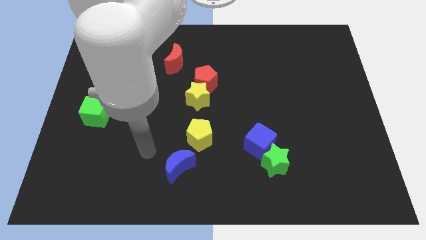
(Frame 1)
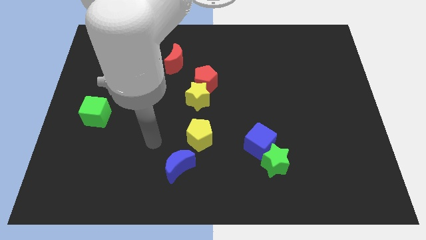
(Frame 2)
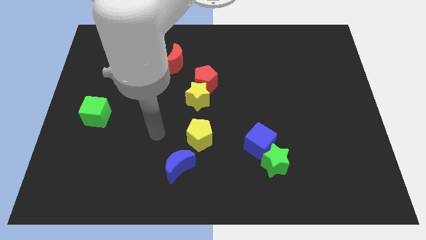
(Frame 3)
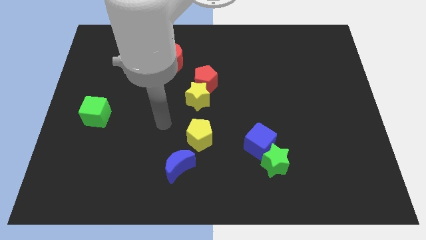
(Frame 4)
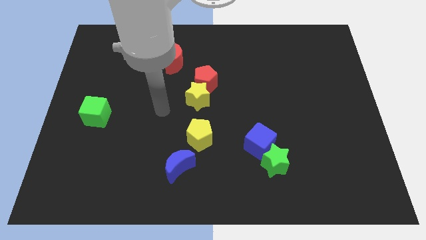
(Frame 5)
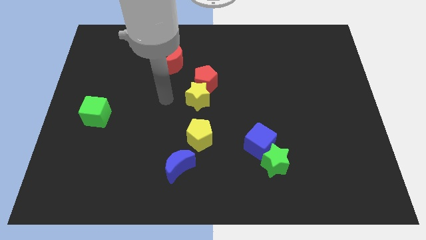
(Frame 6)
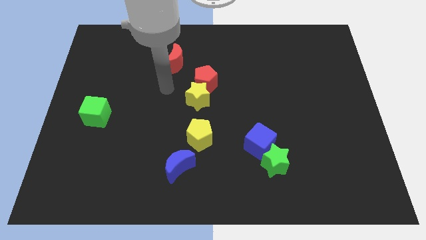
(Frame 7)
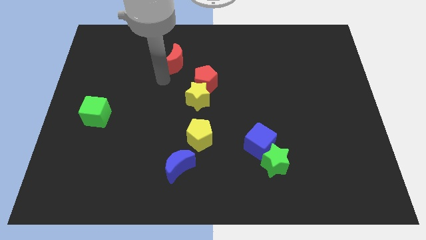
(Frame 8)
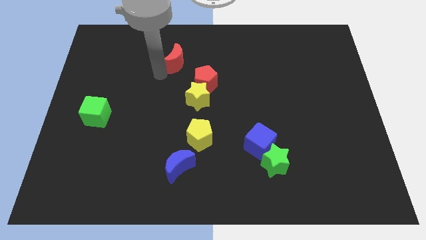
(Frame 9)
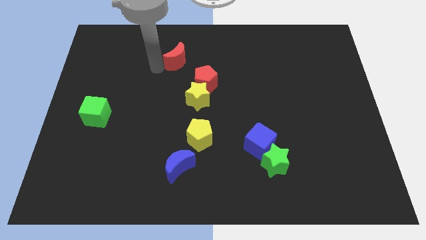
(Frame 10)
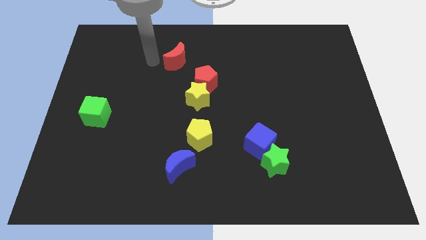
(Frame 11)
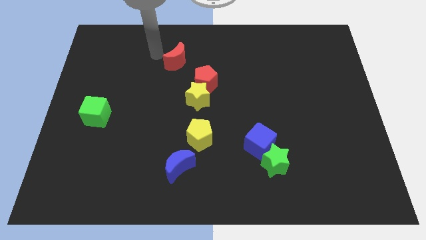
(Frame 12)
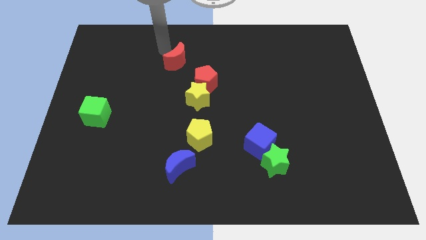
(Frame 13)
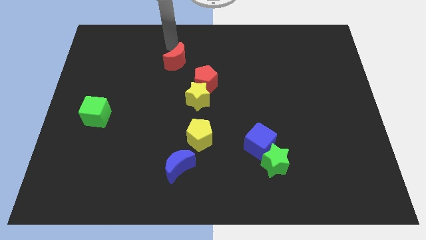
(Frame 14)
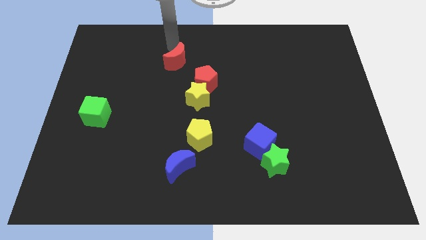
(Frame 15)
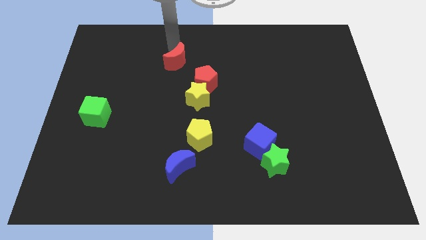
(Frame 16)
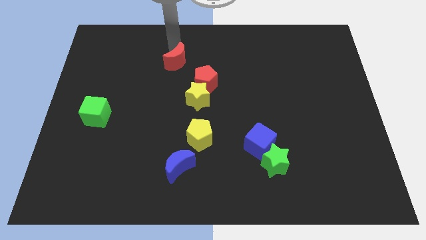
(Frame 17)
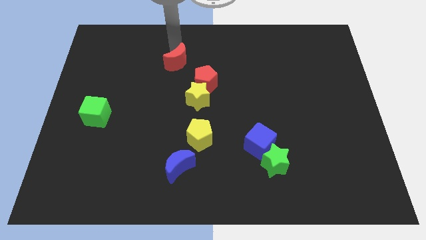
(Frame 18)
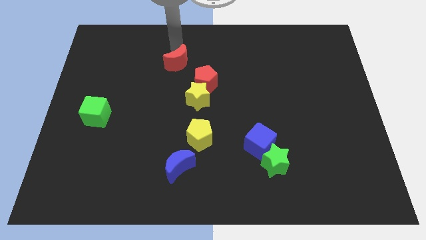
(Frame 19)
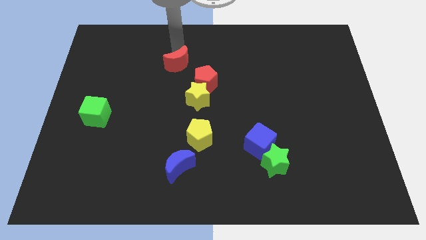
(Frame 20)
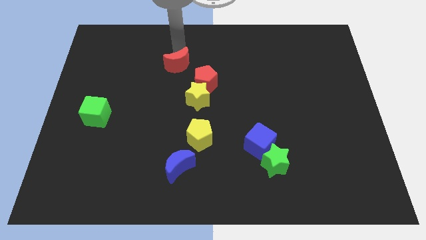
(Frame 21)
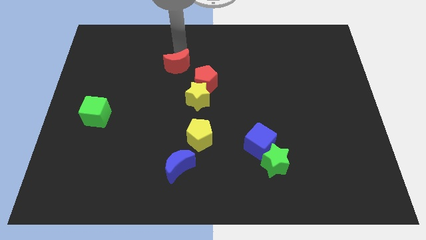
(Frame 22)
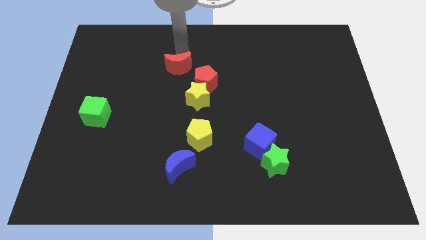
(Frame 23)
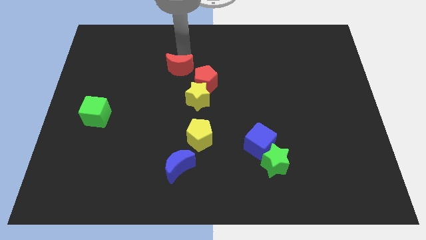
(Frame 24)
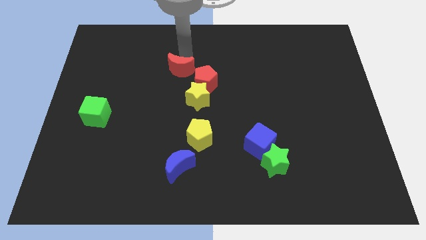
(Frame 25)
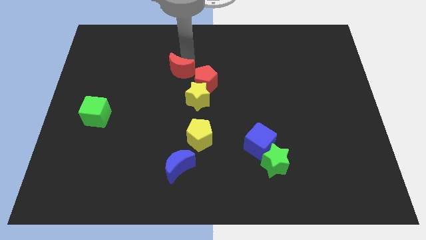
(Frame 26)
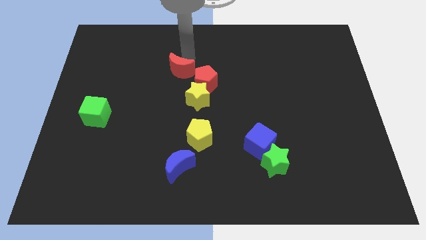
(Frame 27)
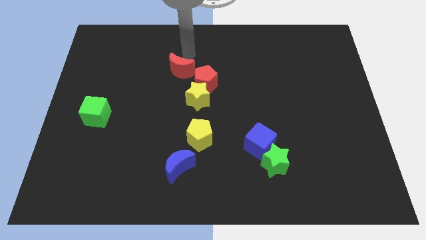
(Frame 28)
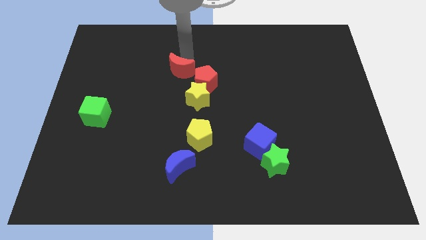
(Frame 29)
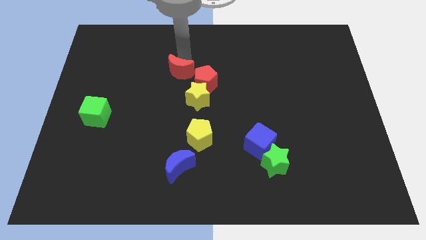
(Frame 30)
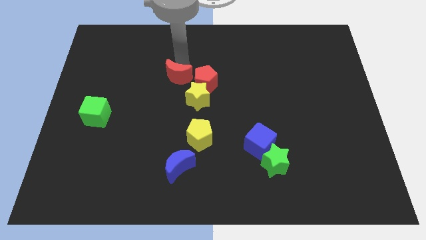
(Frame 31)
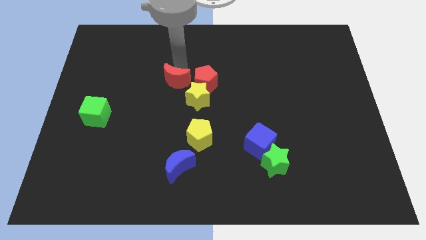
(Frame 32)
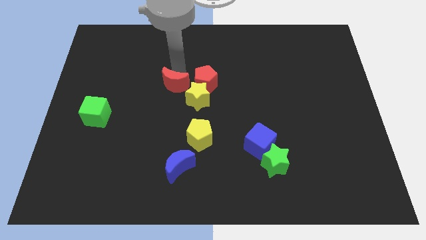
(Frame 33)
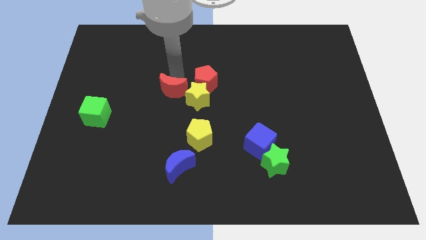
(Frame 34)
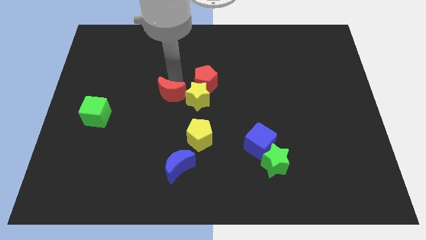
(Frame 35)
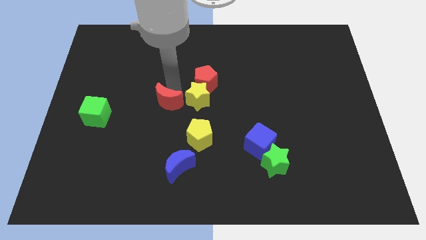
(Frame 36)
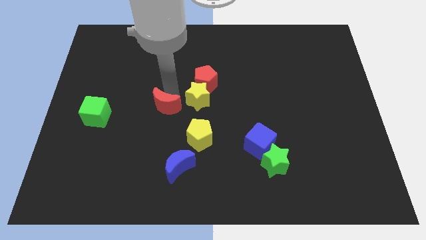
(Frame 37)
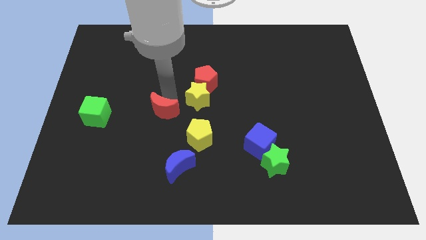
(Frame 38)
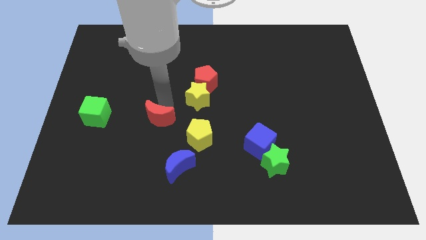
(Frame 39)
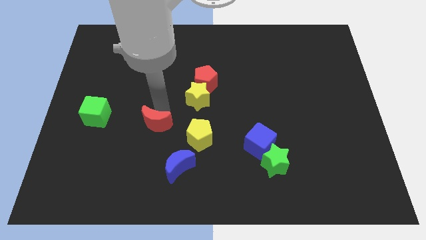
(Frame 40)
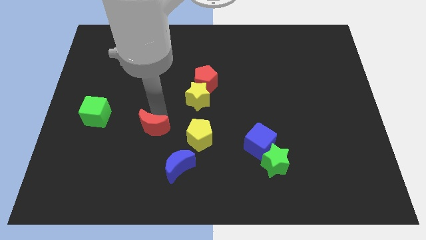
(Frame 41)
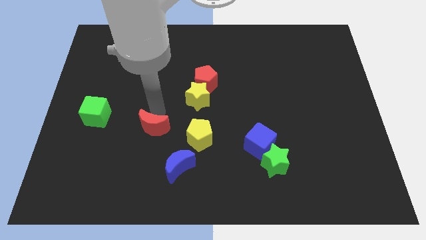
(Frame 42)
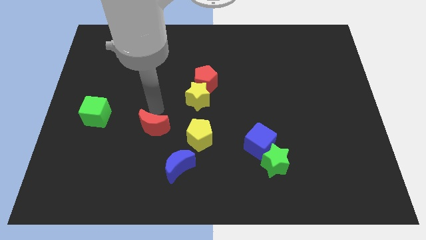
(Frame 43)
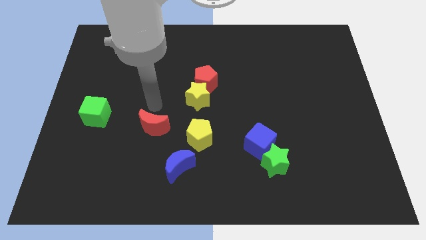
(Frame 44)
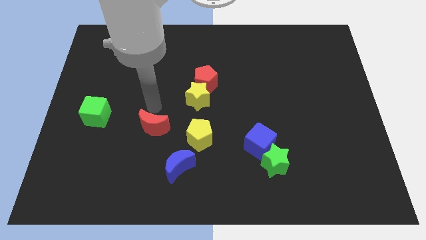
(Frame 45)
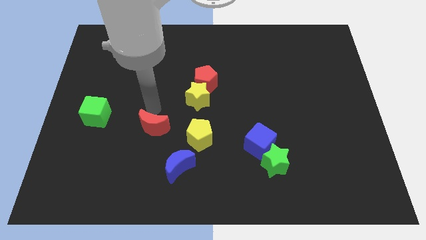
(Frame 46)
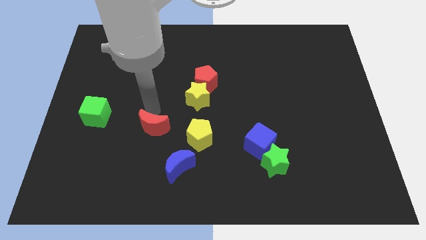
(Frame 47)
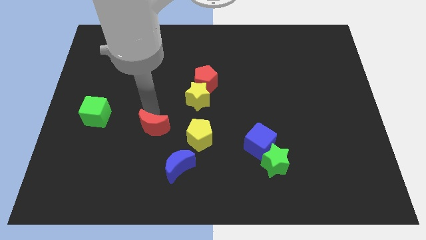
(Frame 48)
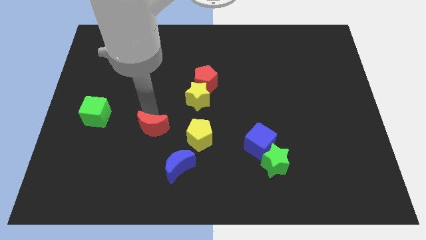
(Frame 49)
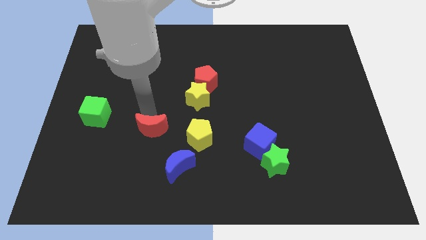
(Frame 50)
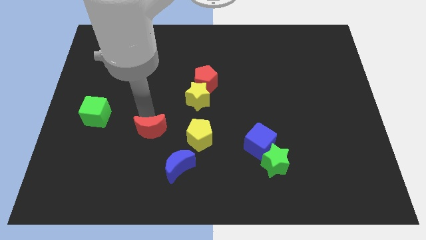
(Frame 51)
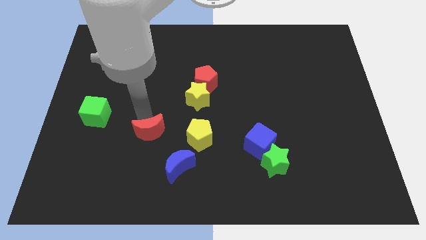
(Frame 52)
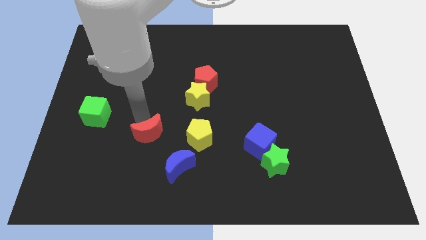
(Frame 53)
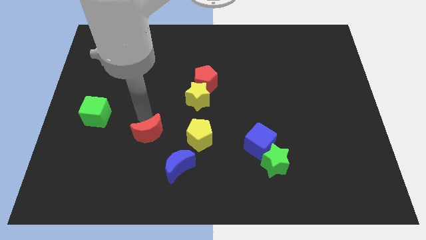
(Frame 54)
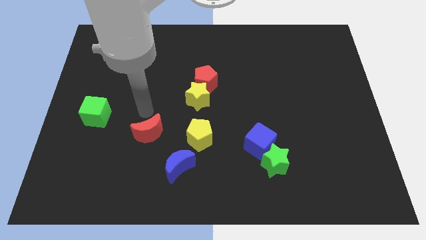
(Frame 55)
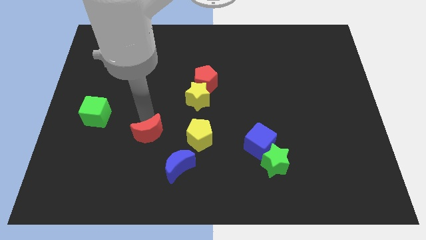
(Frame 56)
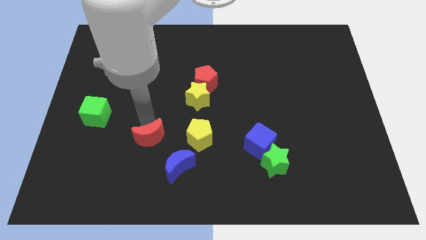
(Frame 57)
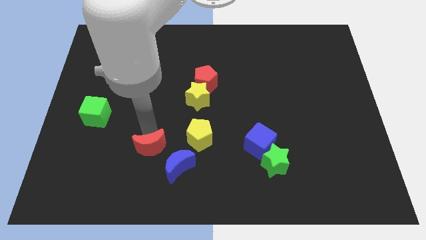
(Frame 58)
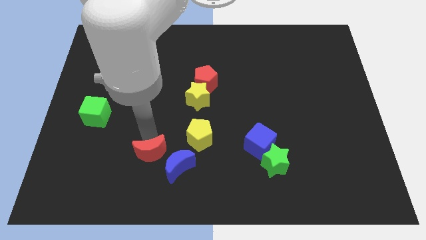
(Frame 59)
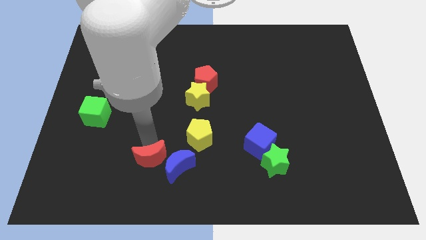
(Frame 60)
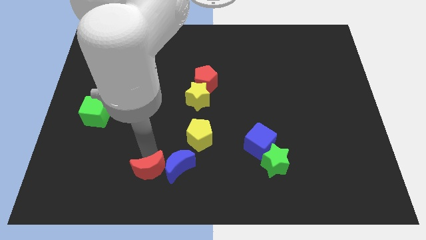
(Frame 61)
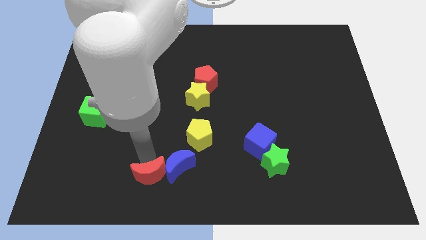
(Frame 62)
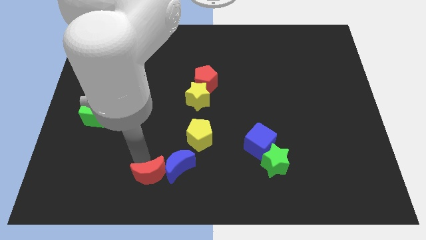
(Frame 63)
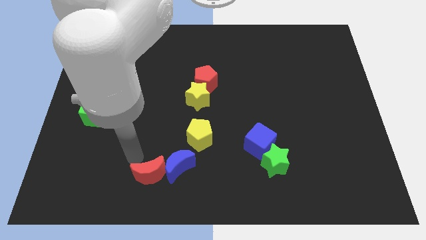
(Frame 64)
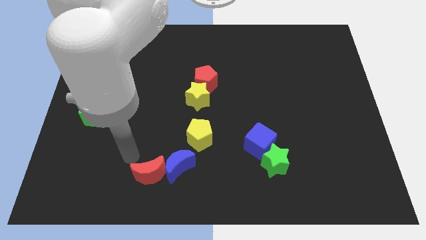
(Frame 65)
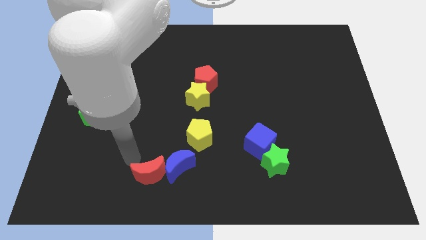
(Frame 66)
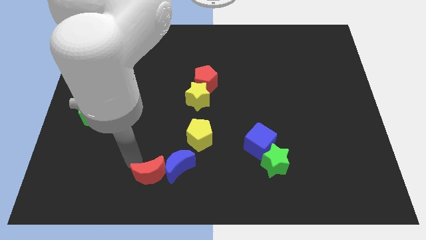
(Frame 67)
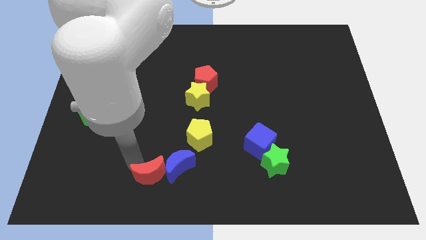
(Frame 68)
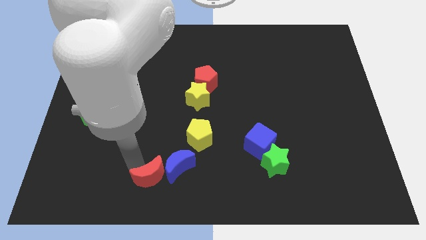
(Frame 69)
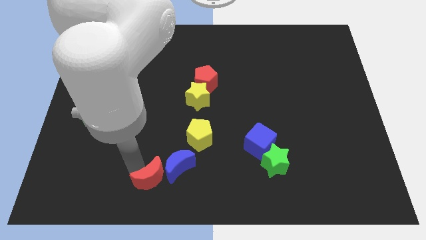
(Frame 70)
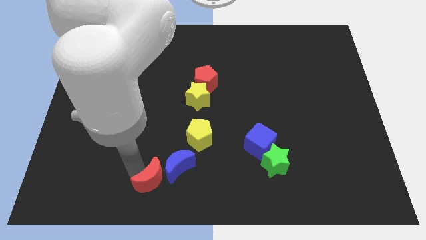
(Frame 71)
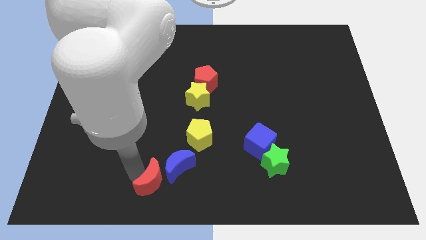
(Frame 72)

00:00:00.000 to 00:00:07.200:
push the red moon to the bottom side

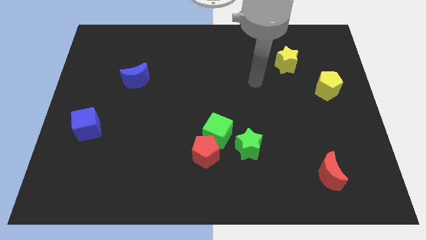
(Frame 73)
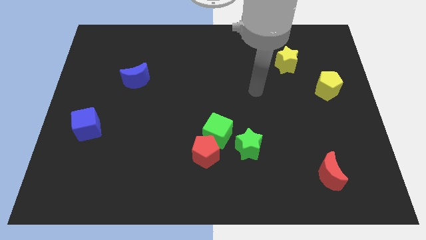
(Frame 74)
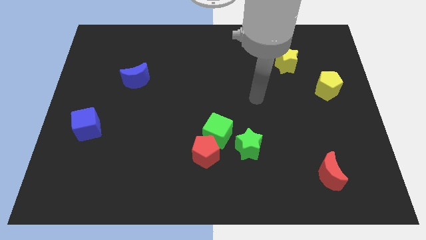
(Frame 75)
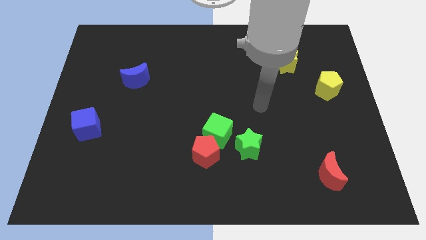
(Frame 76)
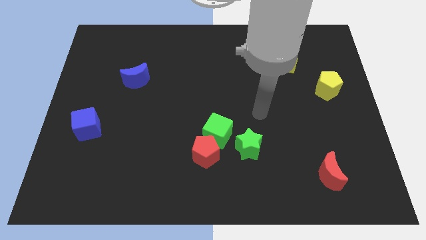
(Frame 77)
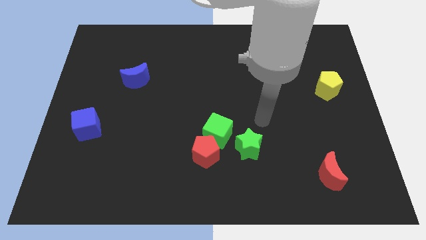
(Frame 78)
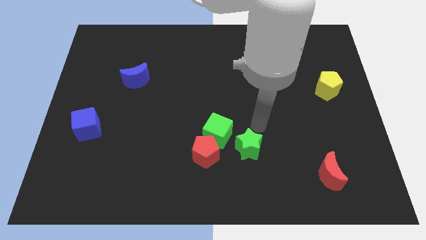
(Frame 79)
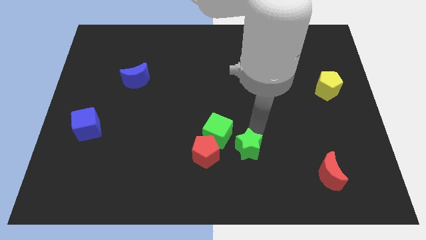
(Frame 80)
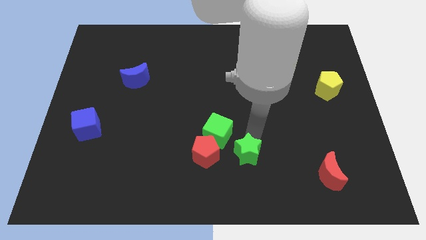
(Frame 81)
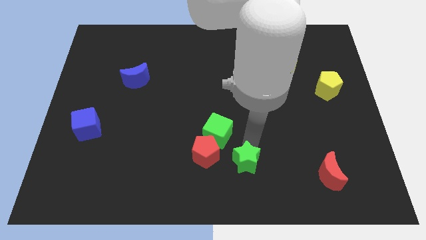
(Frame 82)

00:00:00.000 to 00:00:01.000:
put the green star to the bottom
